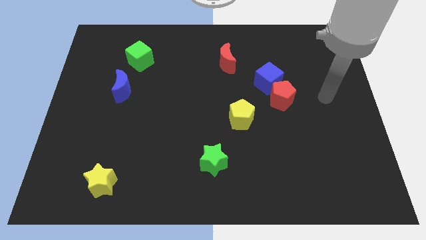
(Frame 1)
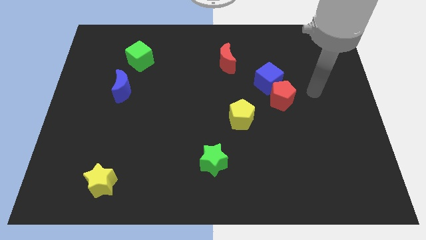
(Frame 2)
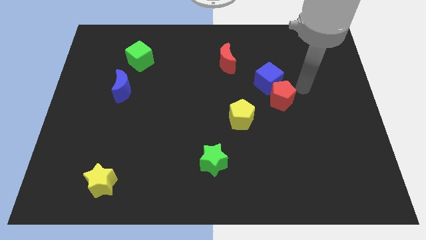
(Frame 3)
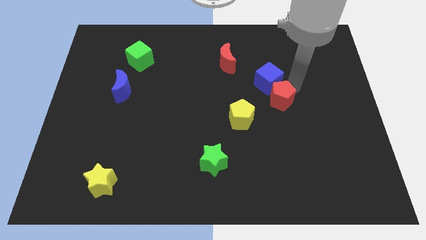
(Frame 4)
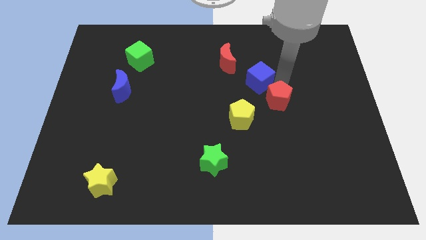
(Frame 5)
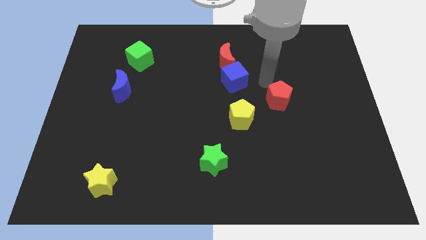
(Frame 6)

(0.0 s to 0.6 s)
separate the red pentagon from the blue cube

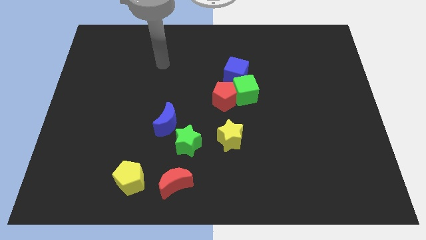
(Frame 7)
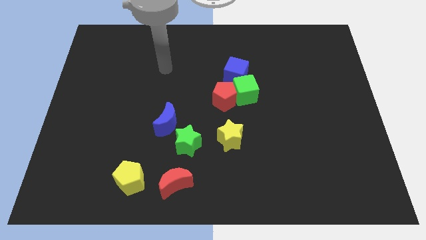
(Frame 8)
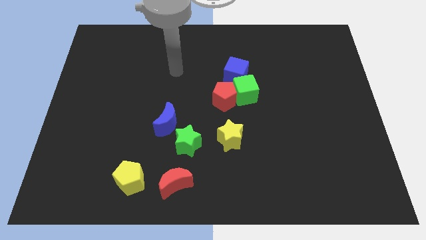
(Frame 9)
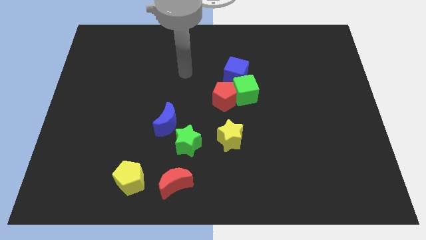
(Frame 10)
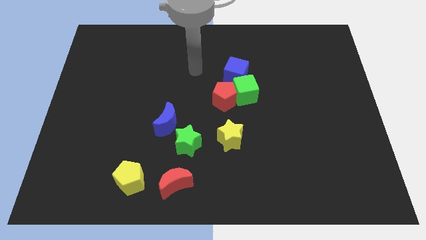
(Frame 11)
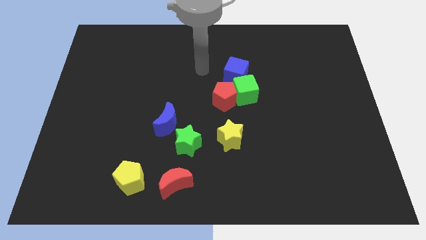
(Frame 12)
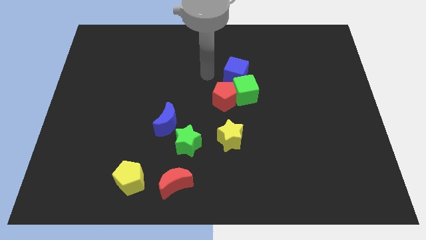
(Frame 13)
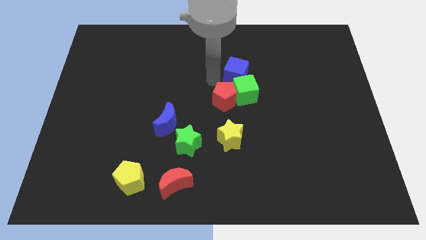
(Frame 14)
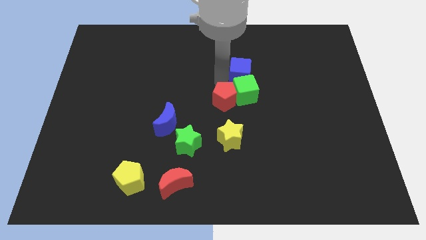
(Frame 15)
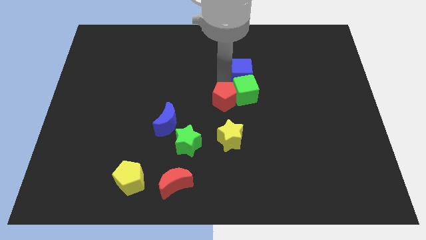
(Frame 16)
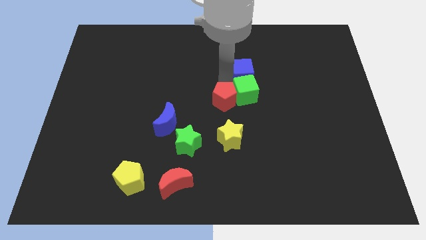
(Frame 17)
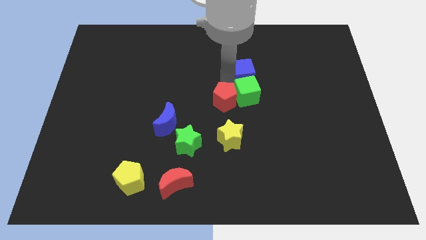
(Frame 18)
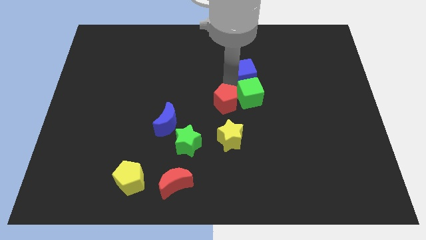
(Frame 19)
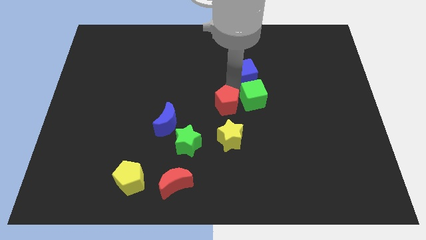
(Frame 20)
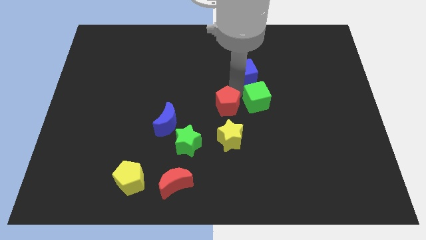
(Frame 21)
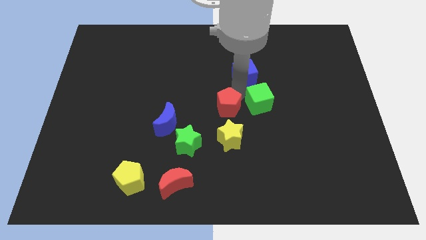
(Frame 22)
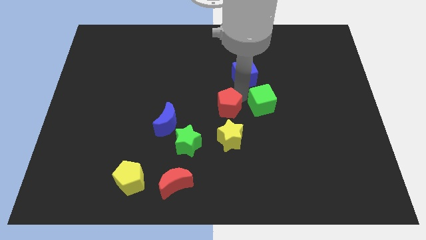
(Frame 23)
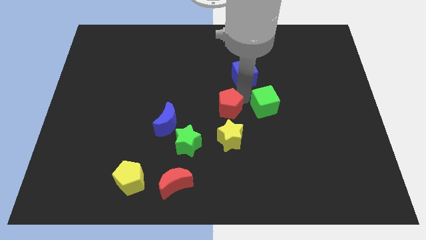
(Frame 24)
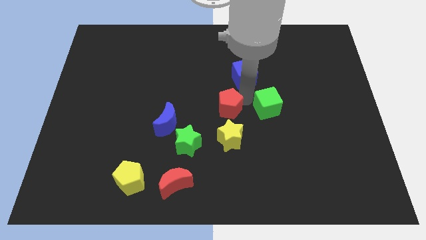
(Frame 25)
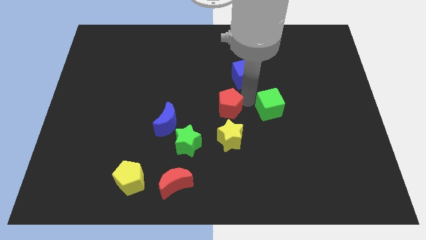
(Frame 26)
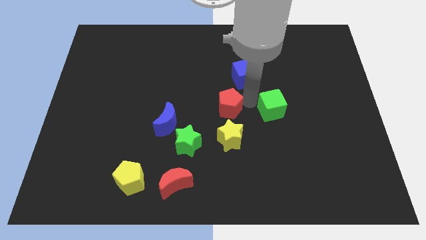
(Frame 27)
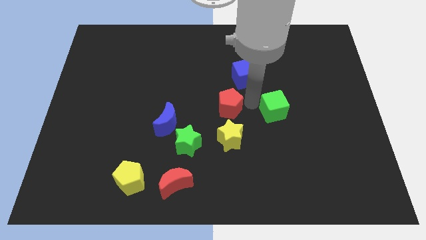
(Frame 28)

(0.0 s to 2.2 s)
separate the green cube from the red pentagon and blue cube

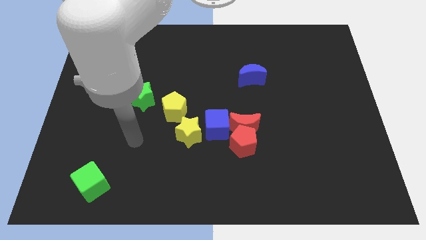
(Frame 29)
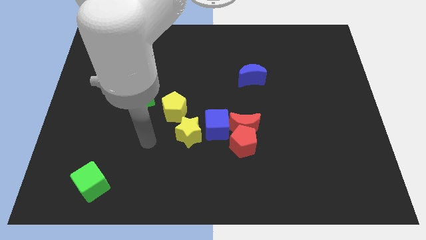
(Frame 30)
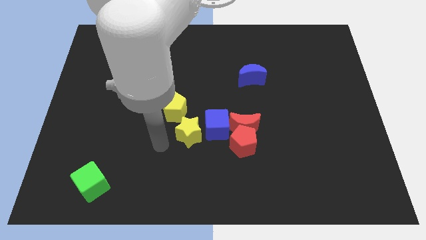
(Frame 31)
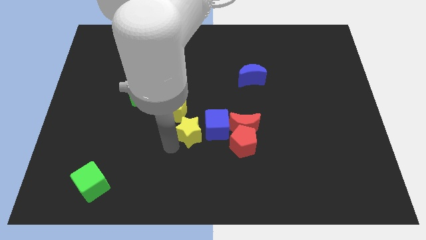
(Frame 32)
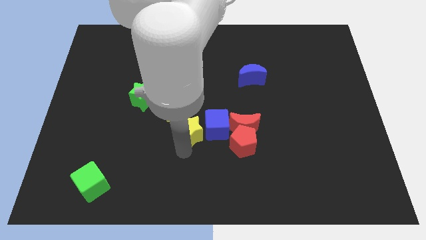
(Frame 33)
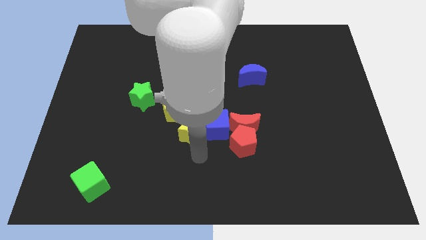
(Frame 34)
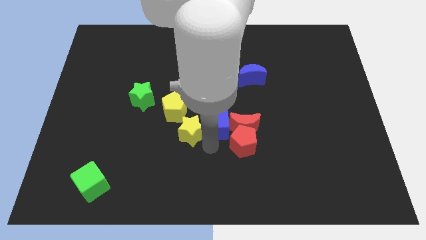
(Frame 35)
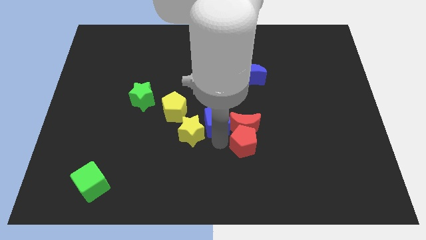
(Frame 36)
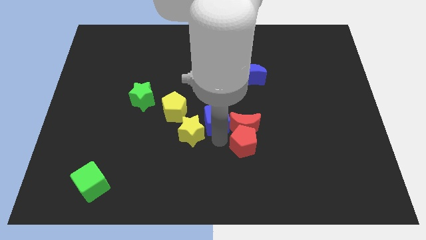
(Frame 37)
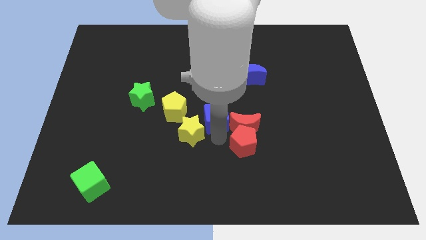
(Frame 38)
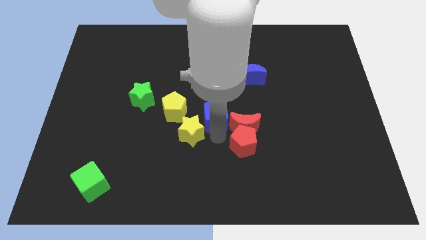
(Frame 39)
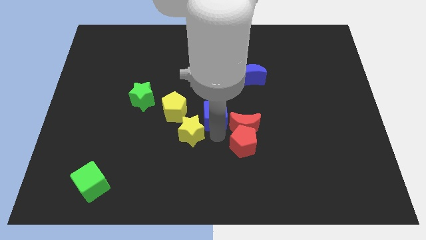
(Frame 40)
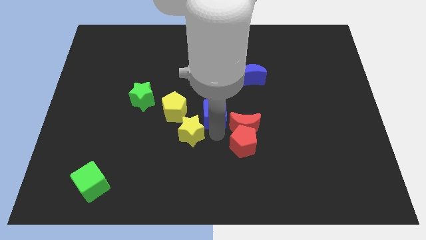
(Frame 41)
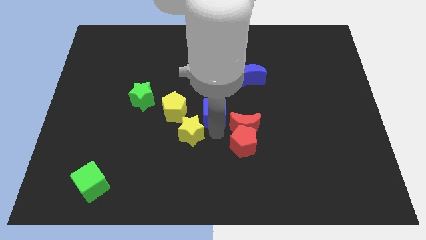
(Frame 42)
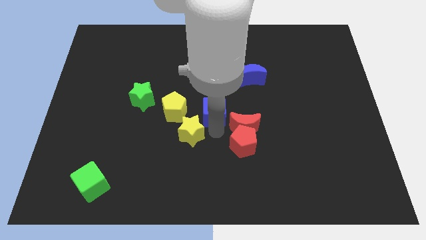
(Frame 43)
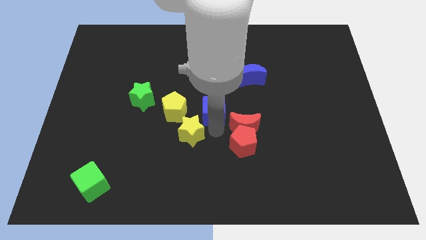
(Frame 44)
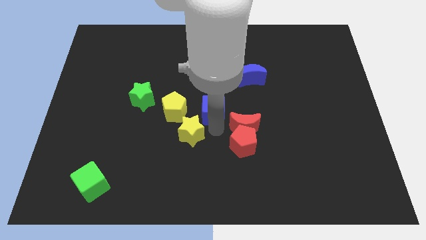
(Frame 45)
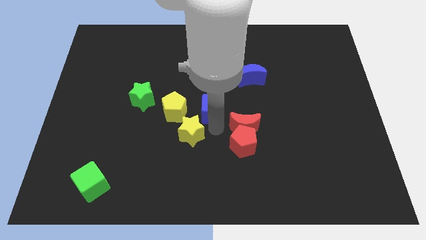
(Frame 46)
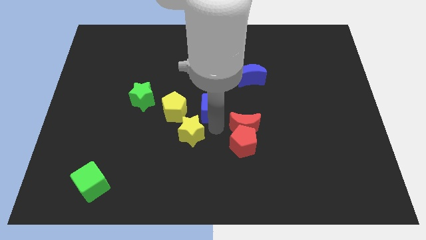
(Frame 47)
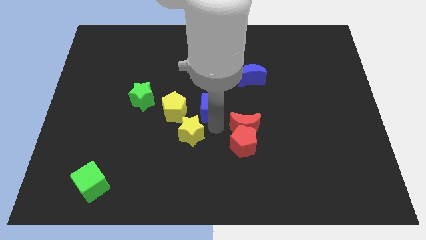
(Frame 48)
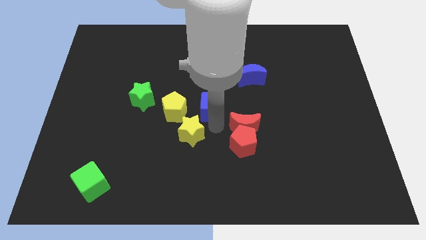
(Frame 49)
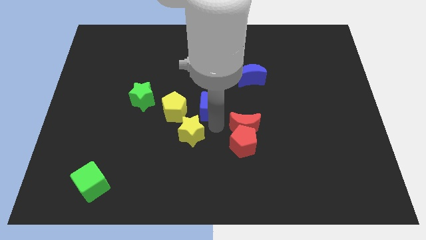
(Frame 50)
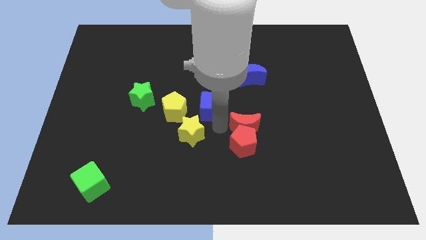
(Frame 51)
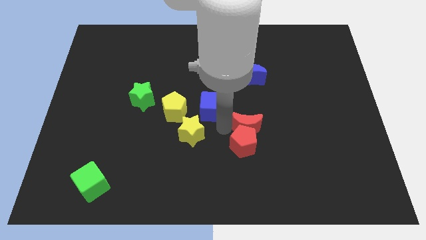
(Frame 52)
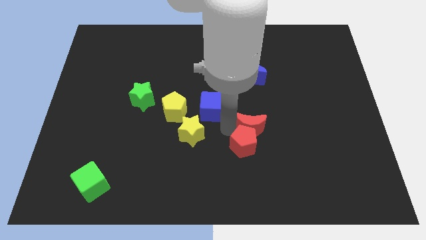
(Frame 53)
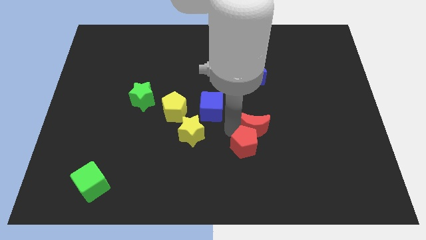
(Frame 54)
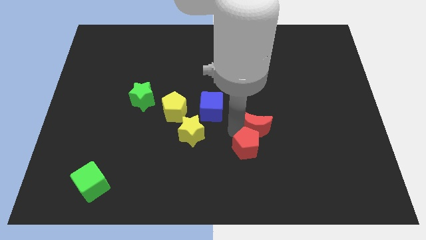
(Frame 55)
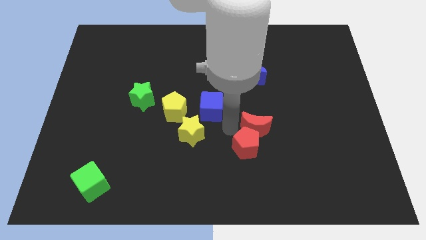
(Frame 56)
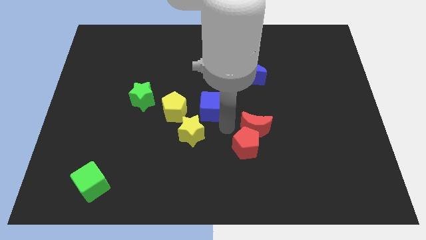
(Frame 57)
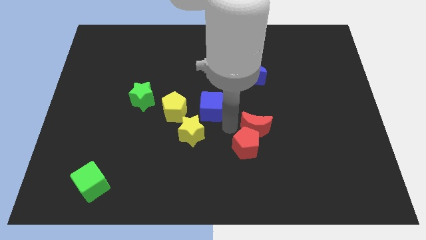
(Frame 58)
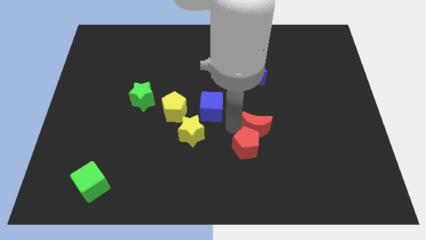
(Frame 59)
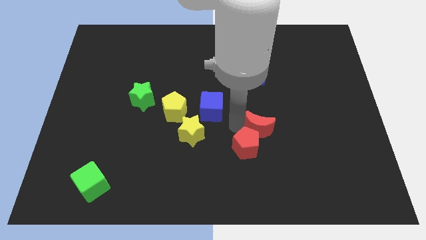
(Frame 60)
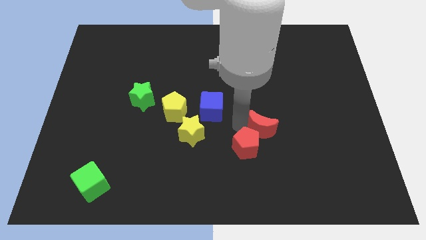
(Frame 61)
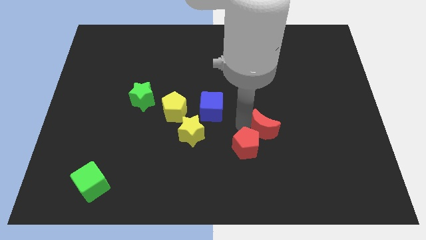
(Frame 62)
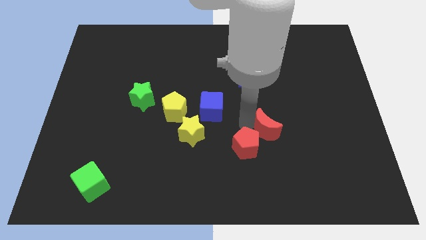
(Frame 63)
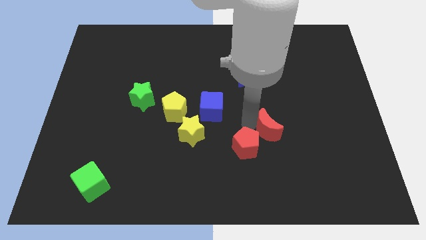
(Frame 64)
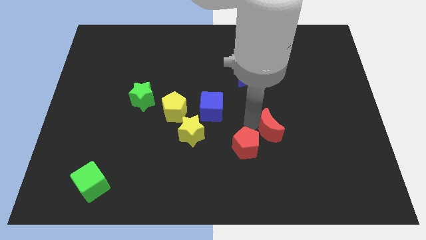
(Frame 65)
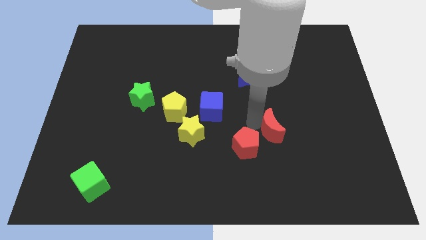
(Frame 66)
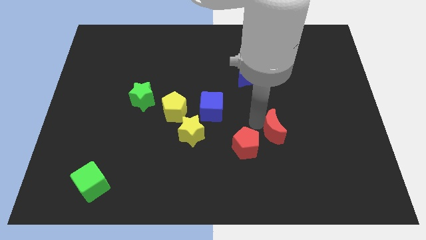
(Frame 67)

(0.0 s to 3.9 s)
pull the red moon apart from the red pentagon and blue cube

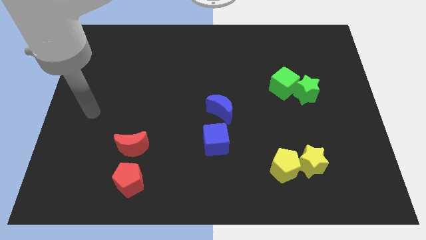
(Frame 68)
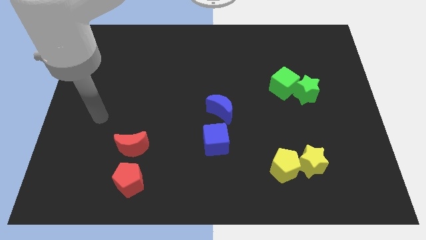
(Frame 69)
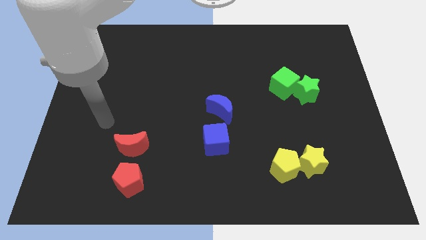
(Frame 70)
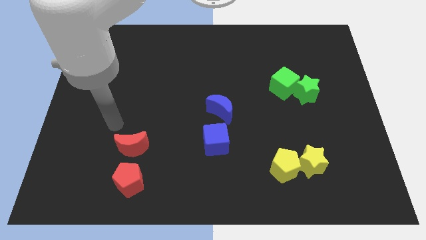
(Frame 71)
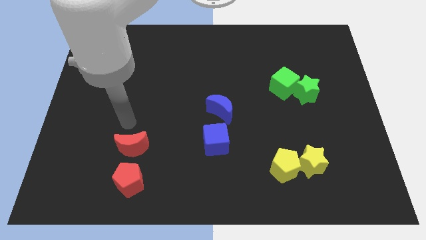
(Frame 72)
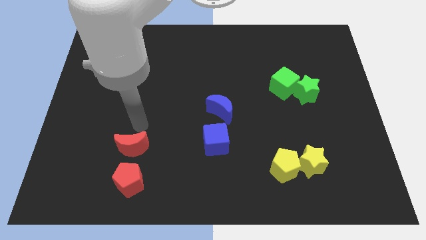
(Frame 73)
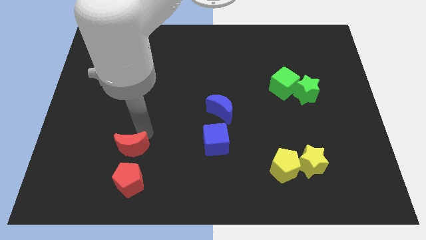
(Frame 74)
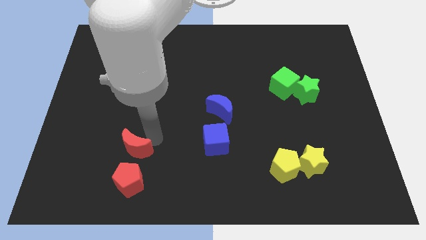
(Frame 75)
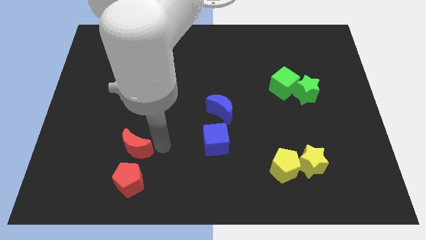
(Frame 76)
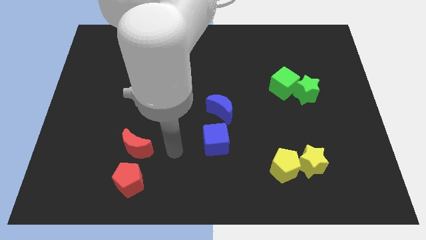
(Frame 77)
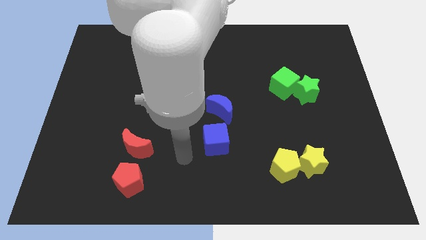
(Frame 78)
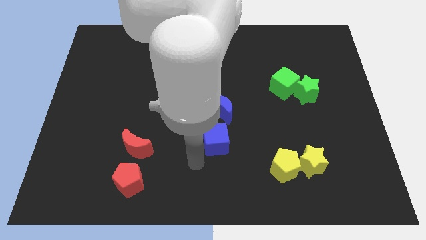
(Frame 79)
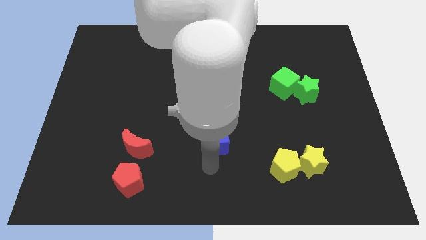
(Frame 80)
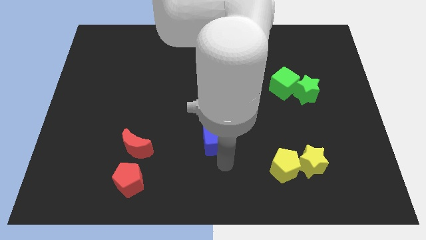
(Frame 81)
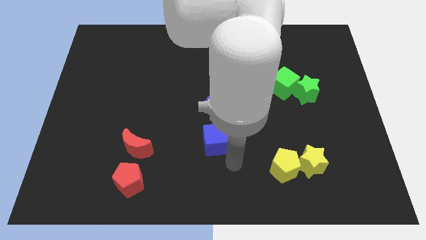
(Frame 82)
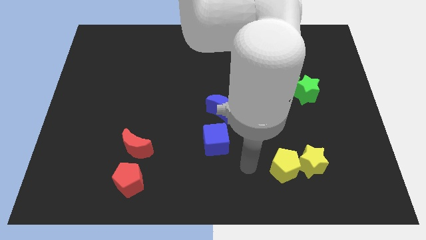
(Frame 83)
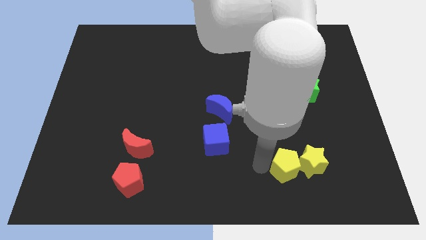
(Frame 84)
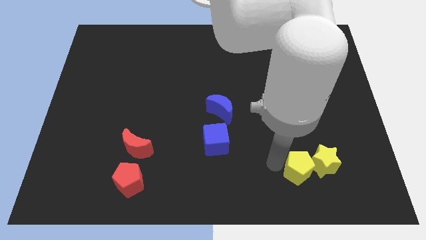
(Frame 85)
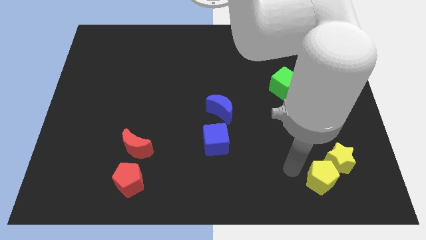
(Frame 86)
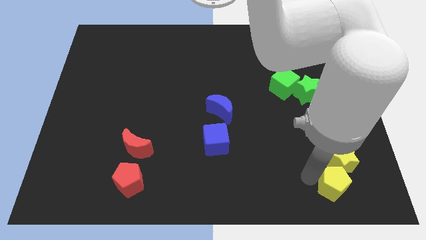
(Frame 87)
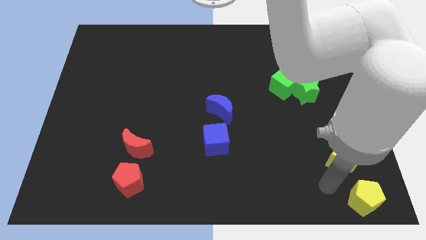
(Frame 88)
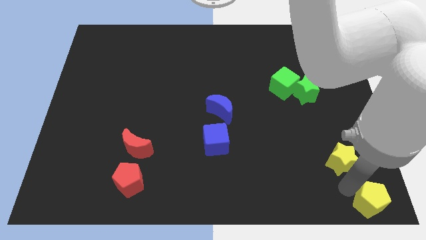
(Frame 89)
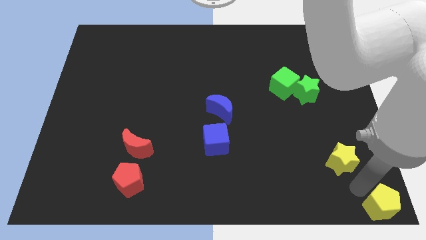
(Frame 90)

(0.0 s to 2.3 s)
move the yellow star away from the yellow pentagon

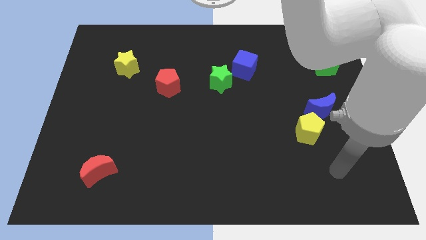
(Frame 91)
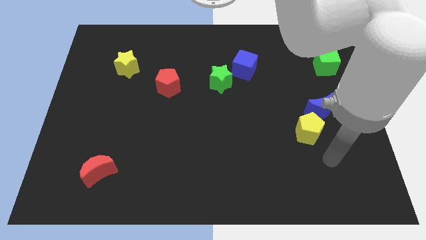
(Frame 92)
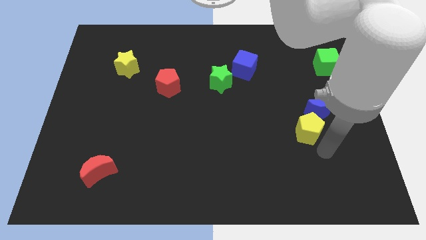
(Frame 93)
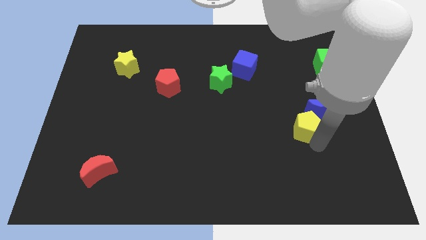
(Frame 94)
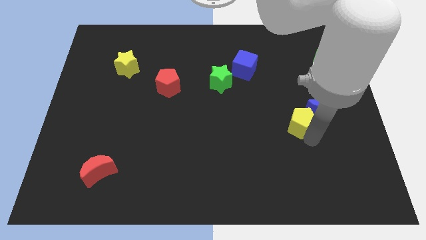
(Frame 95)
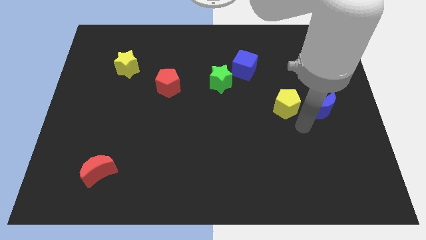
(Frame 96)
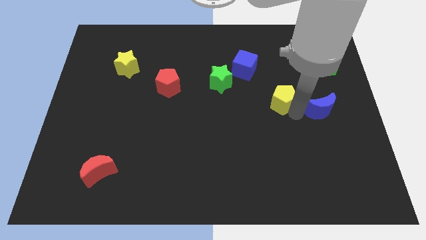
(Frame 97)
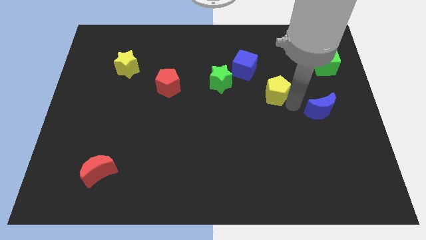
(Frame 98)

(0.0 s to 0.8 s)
pull the blue moon apart from the yellow pentagon
